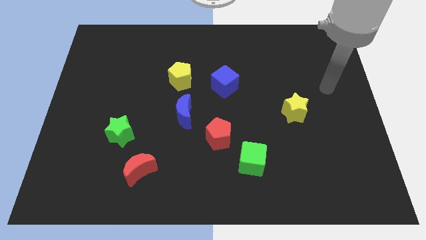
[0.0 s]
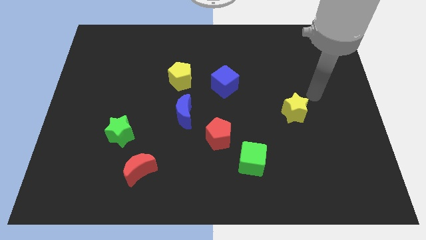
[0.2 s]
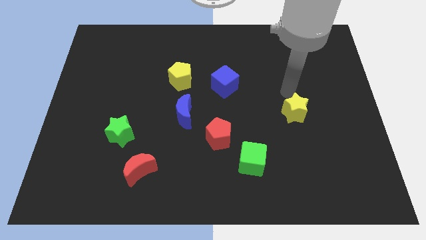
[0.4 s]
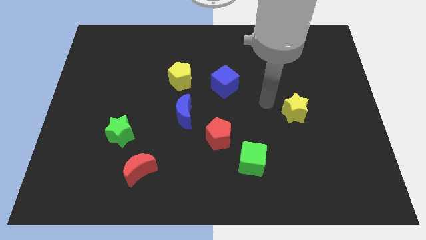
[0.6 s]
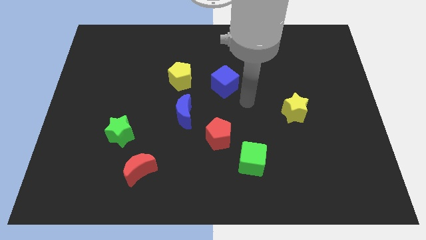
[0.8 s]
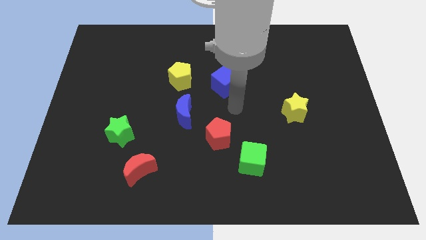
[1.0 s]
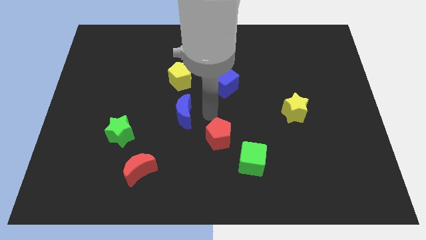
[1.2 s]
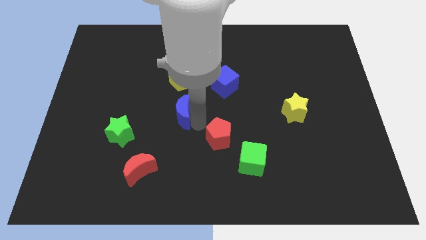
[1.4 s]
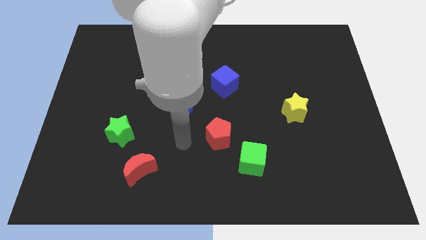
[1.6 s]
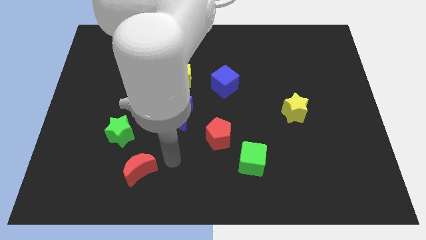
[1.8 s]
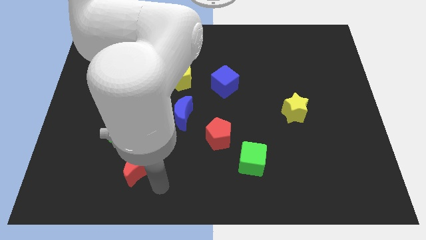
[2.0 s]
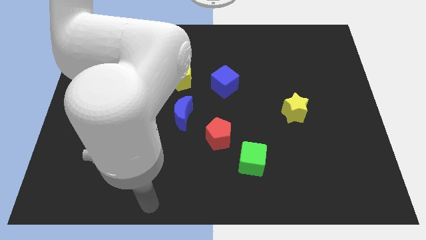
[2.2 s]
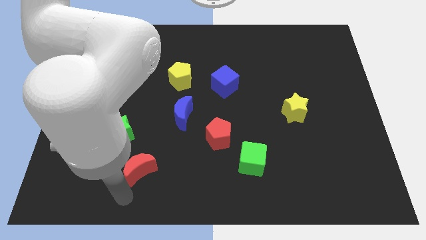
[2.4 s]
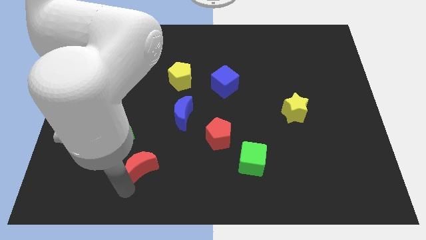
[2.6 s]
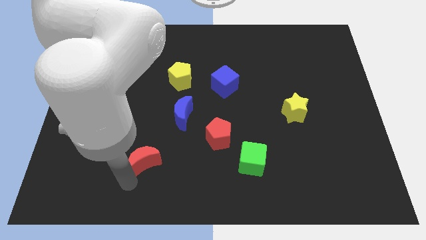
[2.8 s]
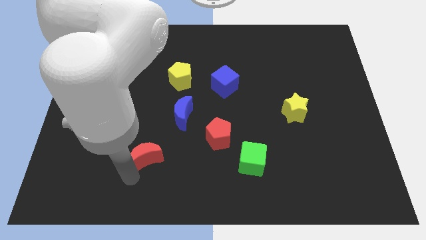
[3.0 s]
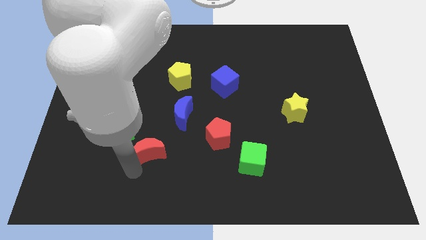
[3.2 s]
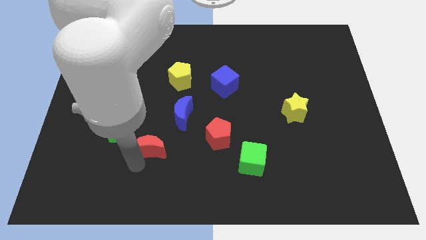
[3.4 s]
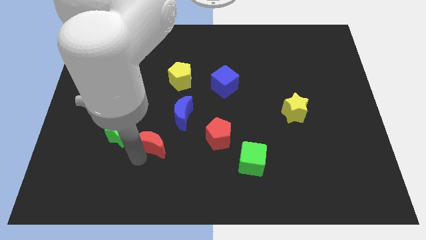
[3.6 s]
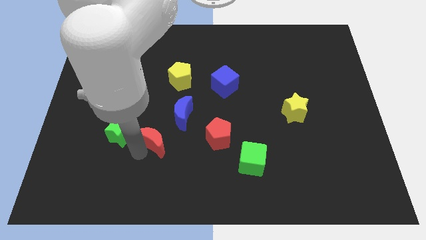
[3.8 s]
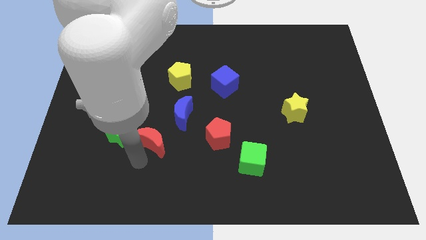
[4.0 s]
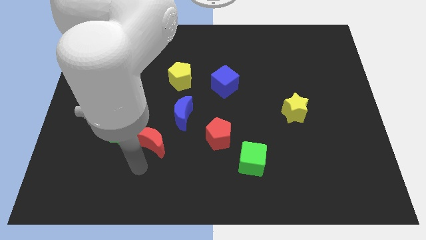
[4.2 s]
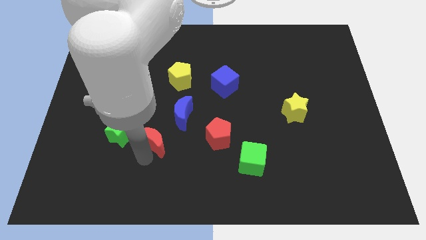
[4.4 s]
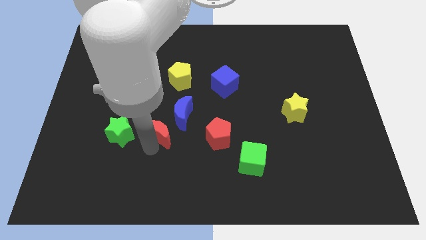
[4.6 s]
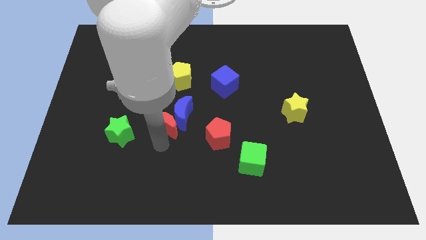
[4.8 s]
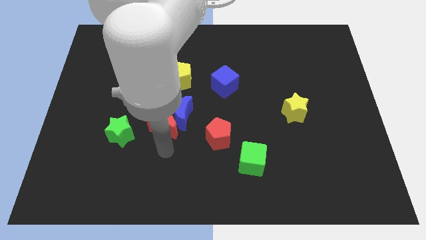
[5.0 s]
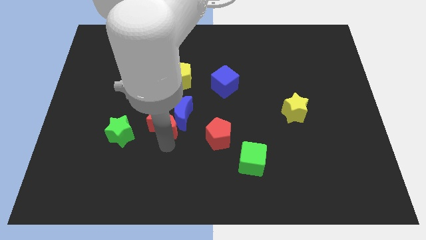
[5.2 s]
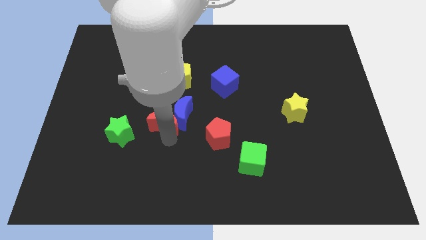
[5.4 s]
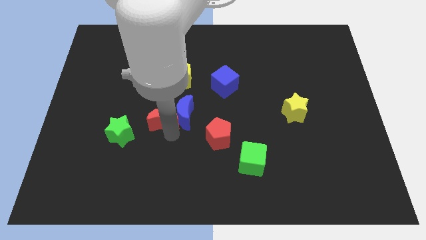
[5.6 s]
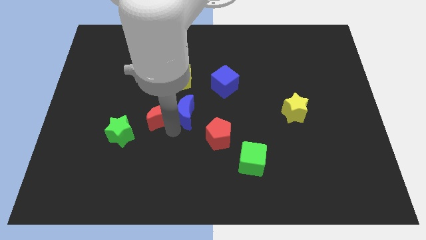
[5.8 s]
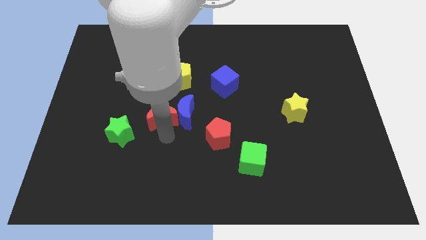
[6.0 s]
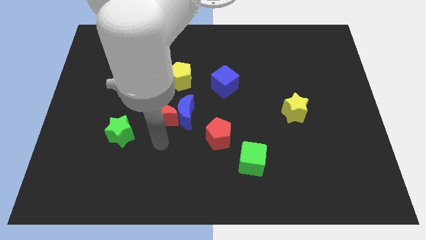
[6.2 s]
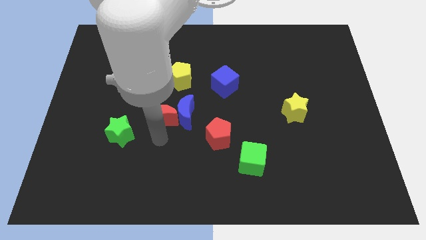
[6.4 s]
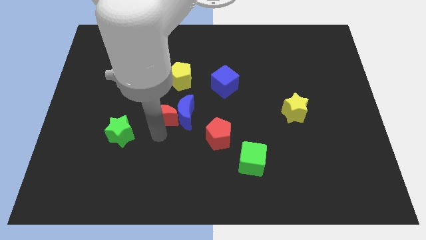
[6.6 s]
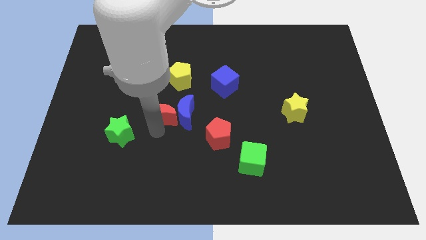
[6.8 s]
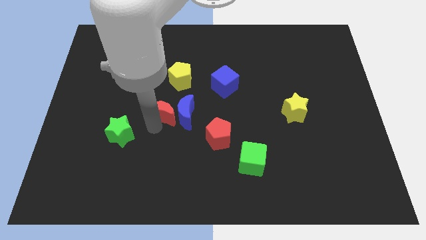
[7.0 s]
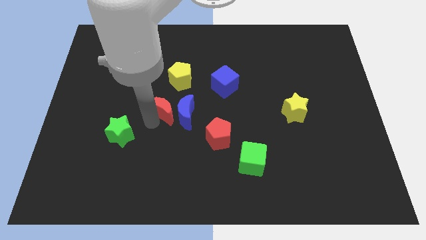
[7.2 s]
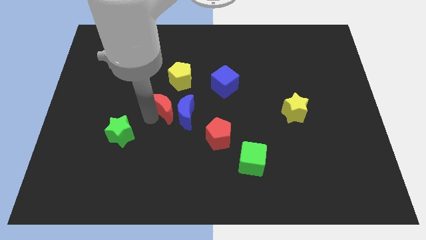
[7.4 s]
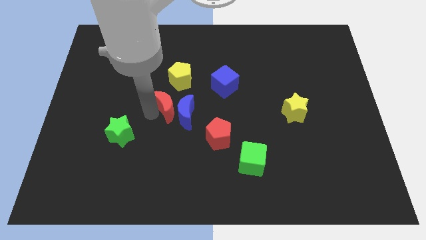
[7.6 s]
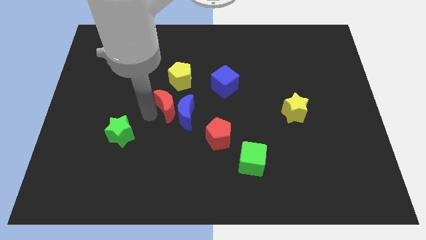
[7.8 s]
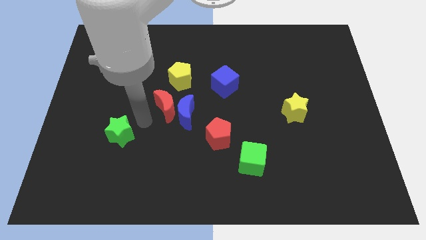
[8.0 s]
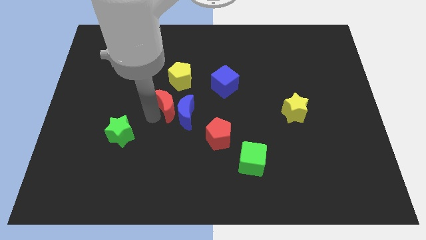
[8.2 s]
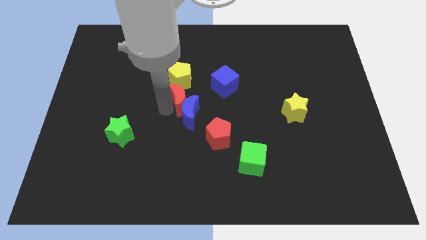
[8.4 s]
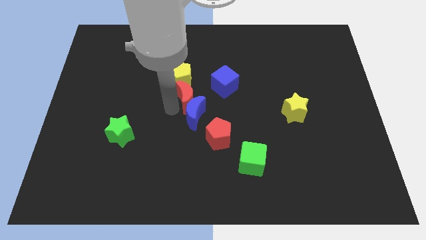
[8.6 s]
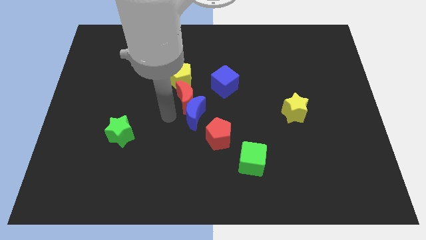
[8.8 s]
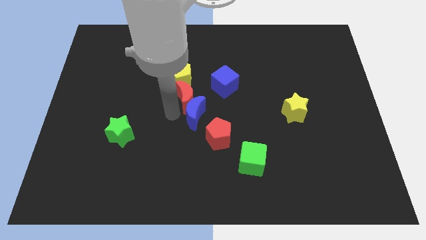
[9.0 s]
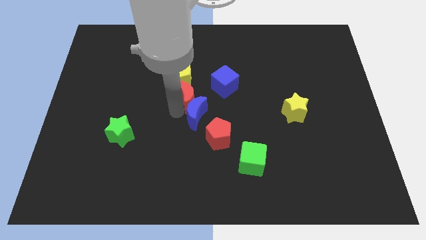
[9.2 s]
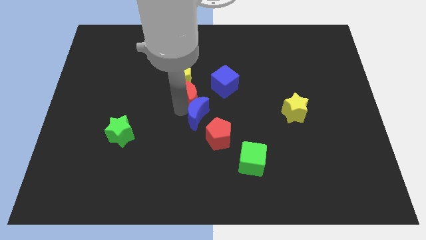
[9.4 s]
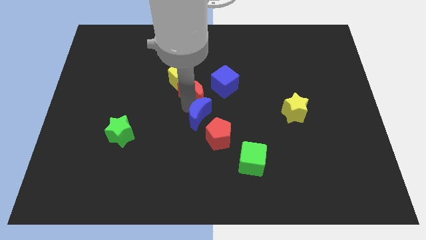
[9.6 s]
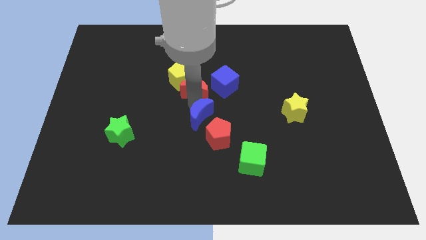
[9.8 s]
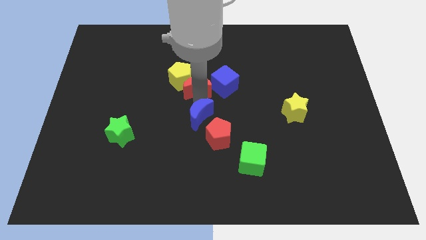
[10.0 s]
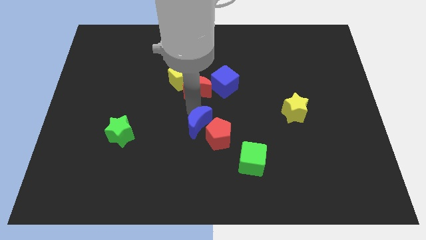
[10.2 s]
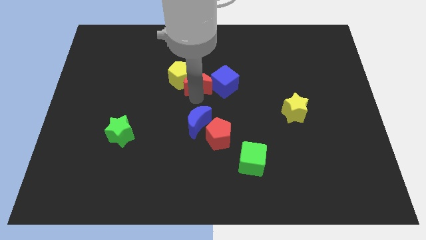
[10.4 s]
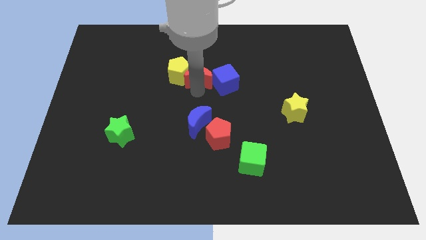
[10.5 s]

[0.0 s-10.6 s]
put the red moon to the top right of the yellow pentagon

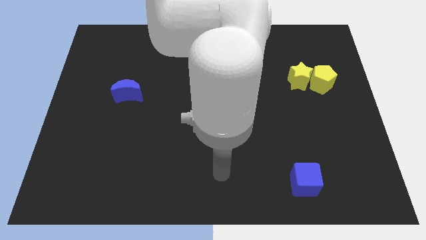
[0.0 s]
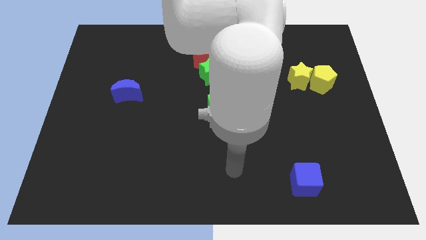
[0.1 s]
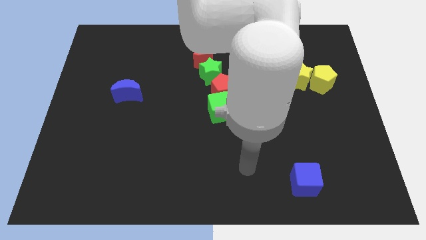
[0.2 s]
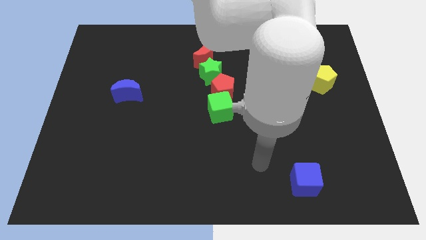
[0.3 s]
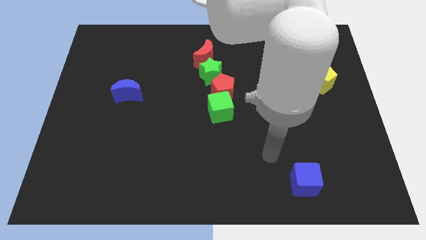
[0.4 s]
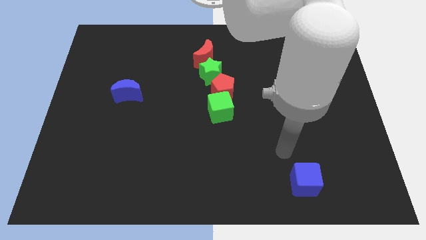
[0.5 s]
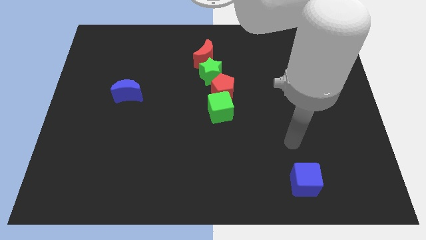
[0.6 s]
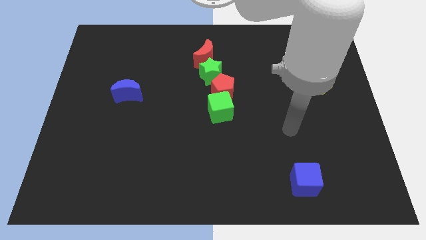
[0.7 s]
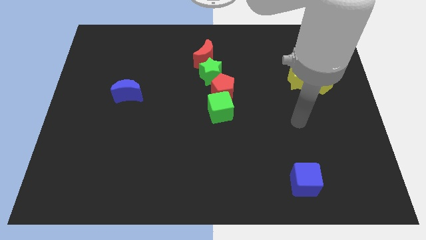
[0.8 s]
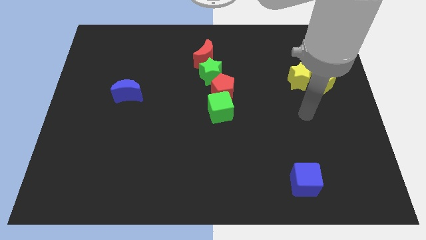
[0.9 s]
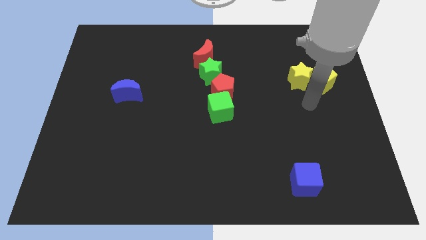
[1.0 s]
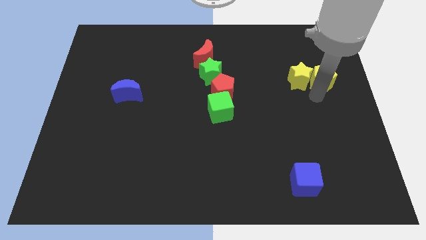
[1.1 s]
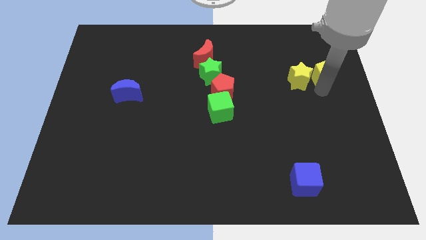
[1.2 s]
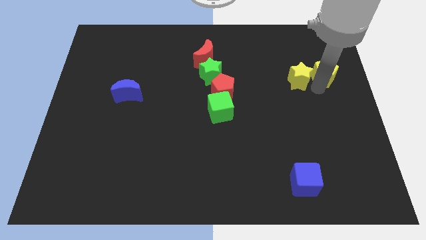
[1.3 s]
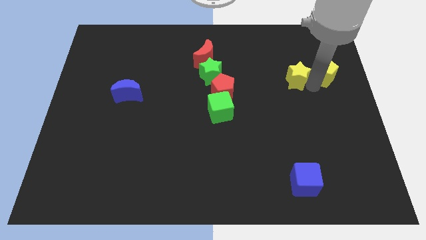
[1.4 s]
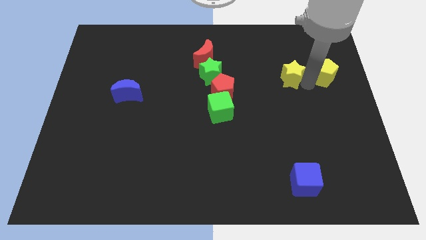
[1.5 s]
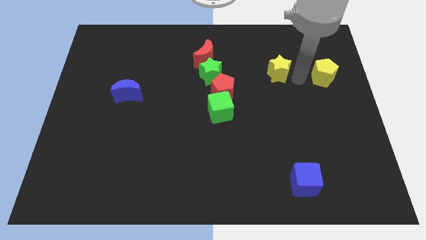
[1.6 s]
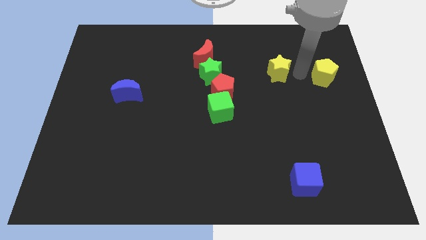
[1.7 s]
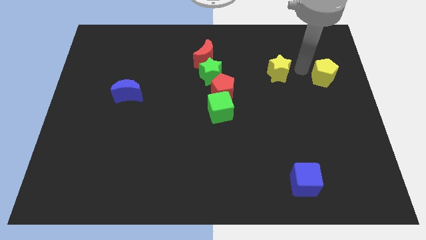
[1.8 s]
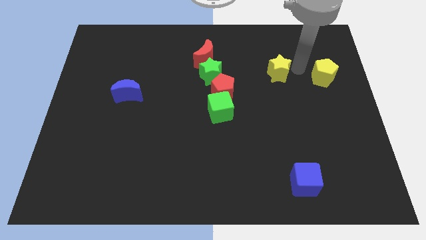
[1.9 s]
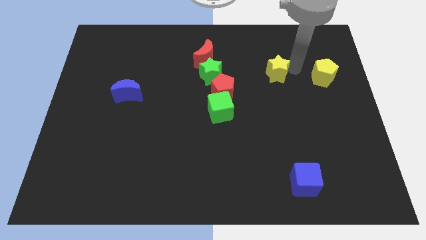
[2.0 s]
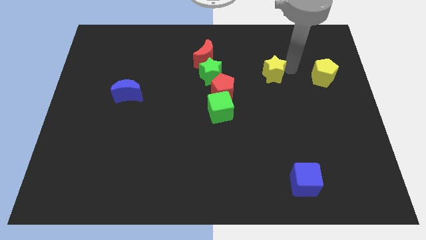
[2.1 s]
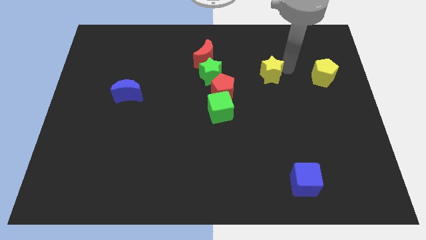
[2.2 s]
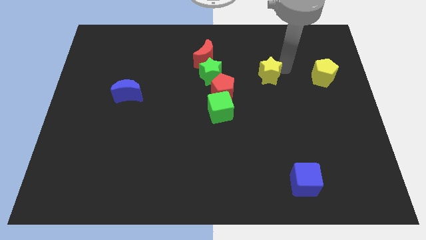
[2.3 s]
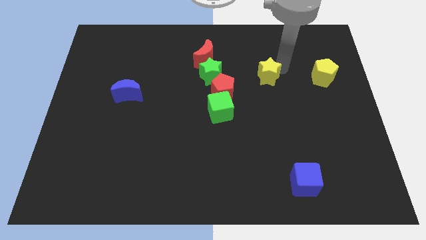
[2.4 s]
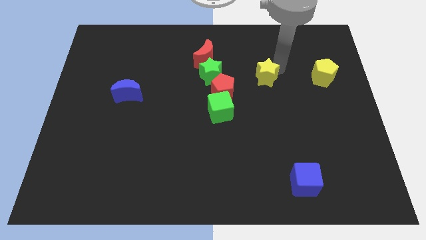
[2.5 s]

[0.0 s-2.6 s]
put the yellow star to the top right side of the red pentagon
